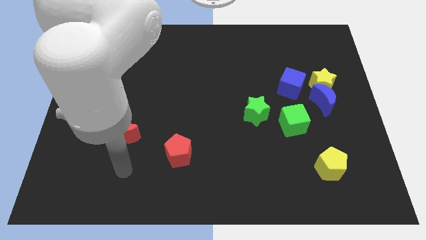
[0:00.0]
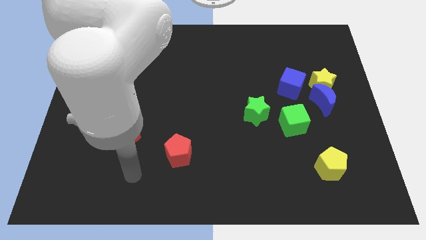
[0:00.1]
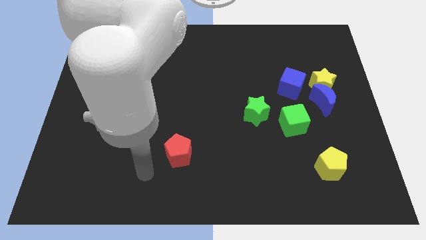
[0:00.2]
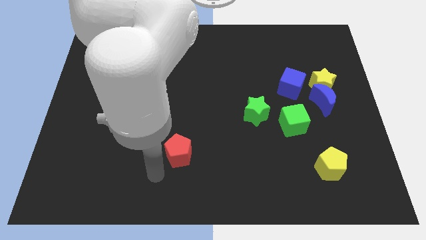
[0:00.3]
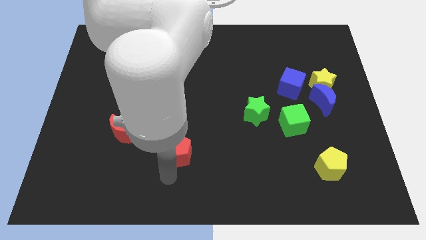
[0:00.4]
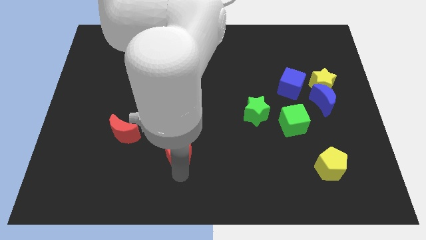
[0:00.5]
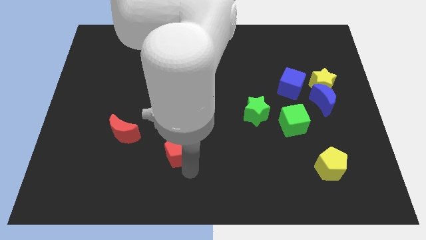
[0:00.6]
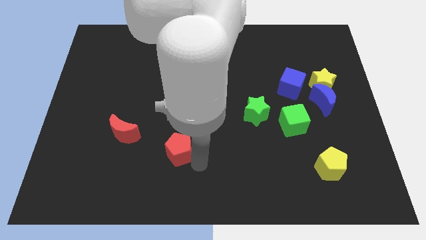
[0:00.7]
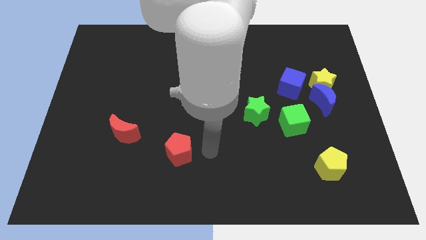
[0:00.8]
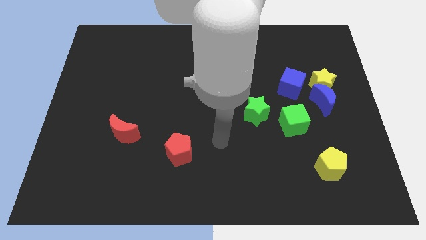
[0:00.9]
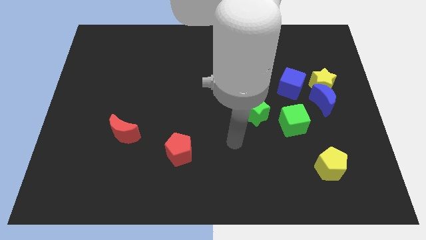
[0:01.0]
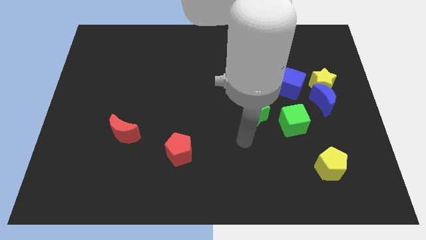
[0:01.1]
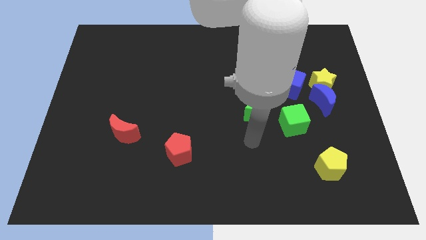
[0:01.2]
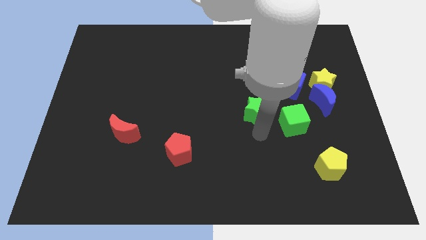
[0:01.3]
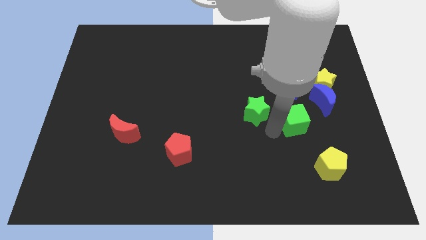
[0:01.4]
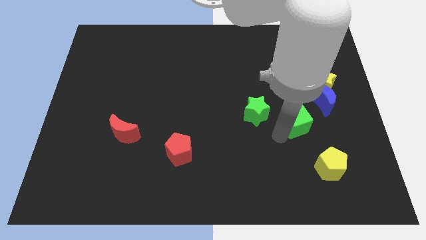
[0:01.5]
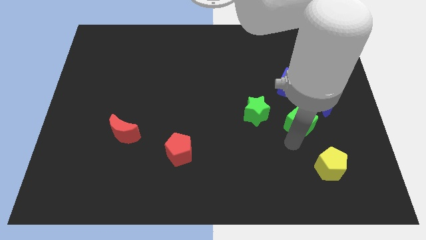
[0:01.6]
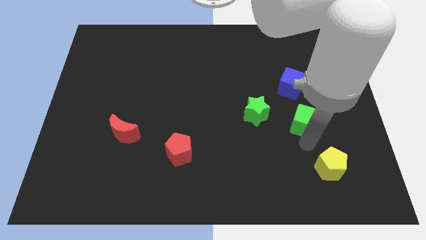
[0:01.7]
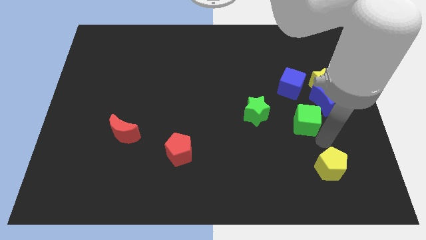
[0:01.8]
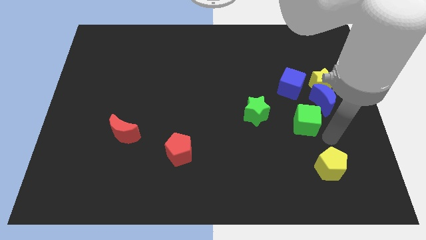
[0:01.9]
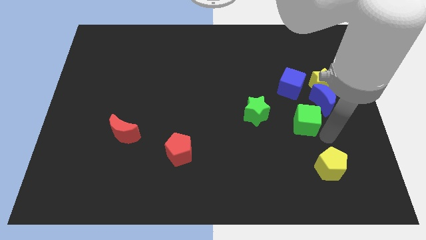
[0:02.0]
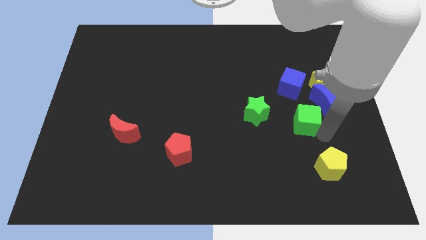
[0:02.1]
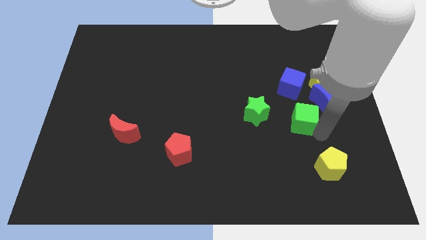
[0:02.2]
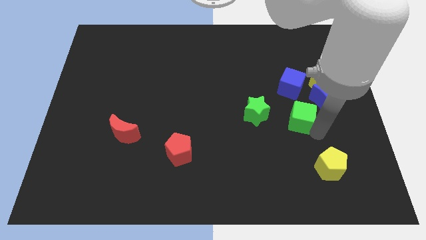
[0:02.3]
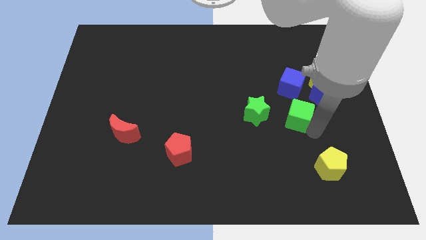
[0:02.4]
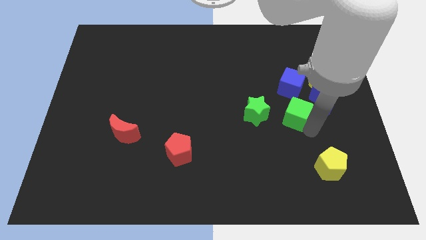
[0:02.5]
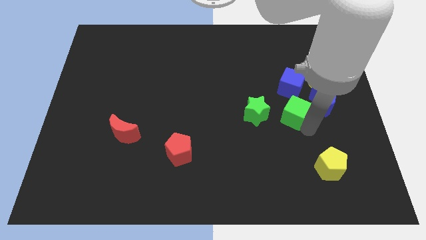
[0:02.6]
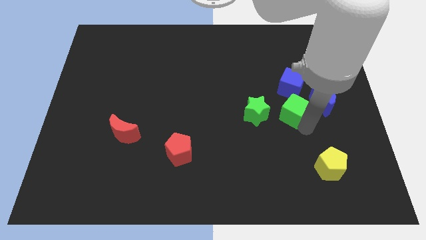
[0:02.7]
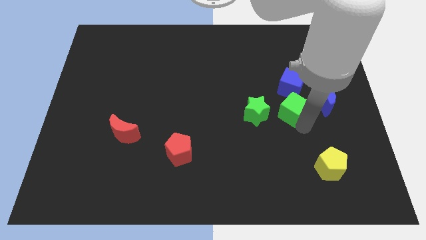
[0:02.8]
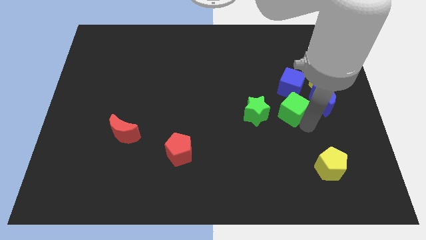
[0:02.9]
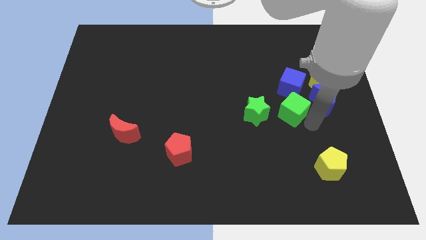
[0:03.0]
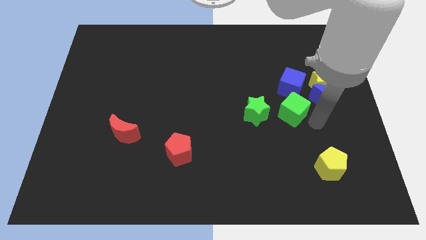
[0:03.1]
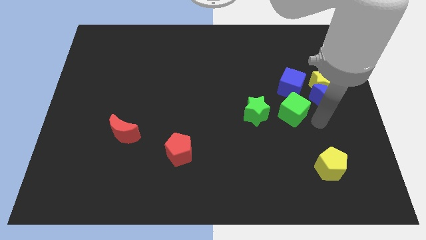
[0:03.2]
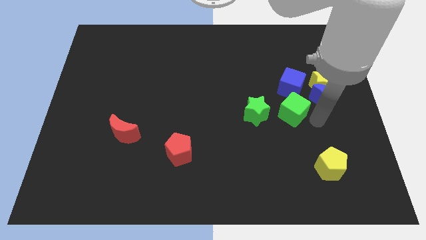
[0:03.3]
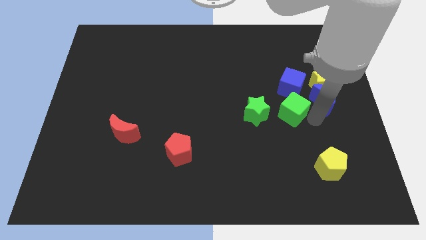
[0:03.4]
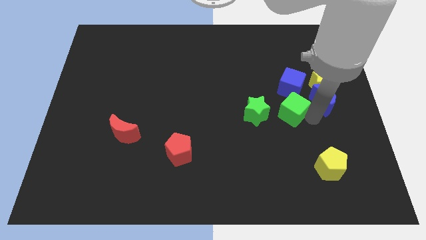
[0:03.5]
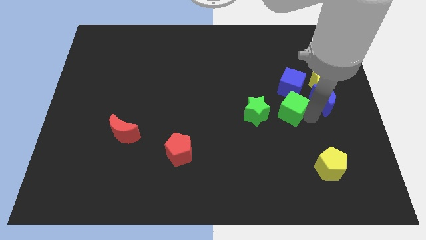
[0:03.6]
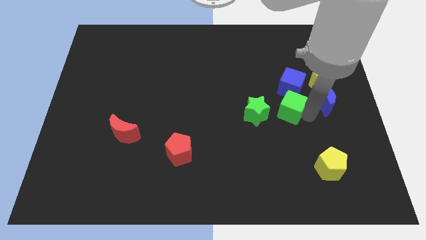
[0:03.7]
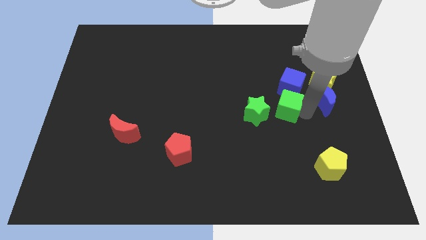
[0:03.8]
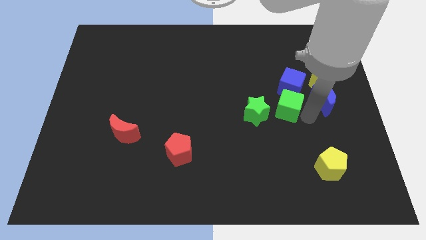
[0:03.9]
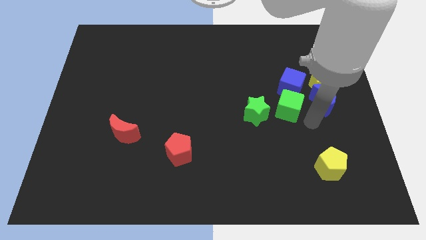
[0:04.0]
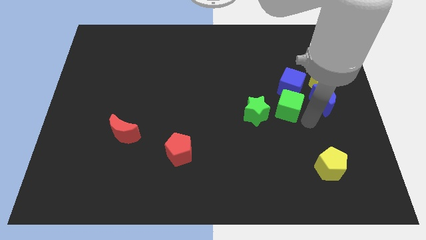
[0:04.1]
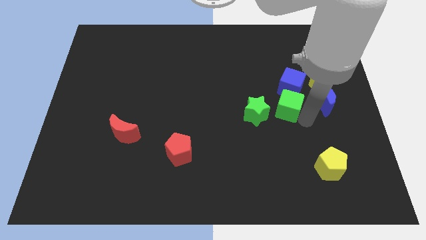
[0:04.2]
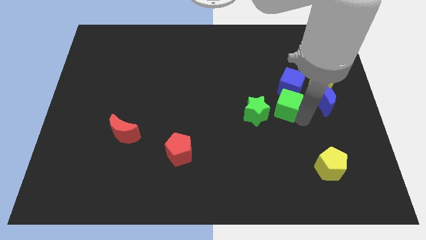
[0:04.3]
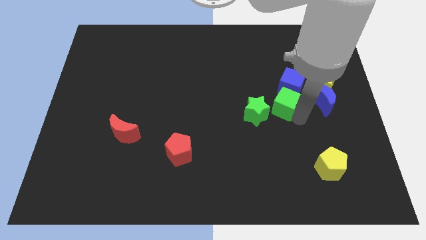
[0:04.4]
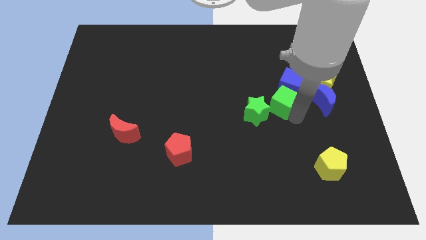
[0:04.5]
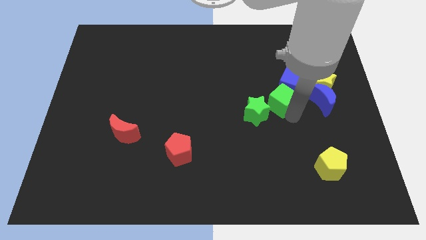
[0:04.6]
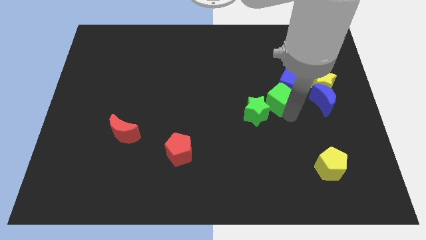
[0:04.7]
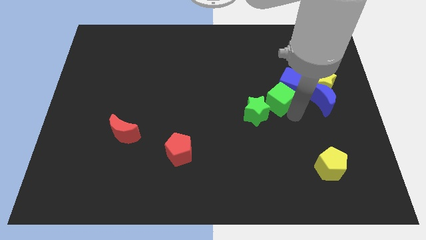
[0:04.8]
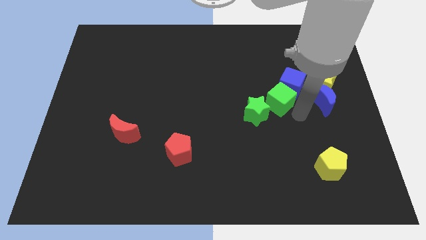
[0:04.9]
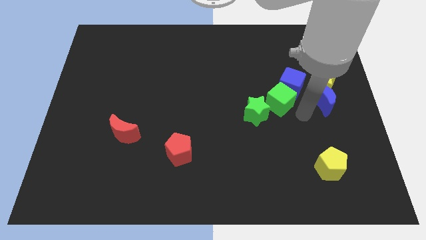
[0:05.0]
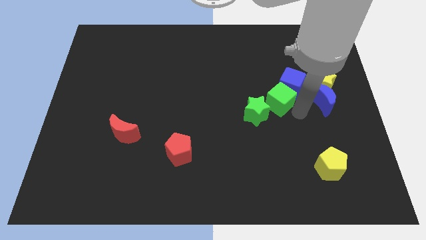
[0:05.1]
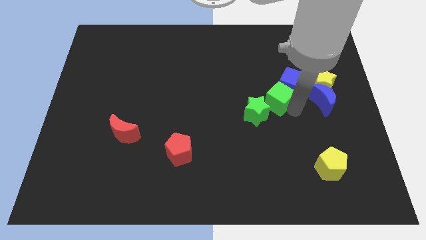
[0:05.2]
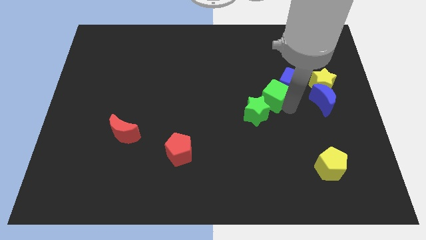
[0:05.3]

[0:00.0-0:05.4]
slide the green cube somewhat diagonally upwards and to the left

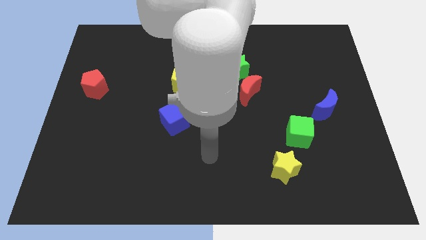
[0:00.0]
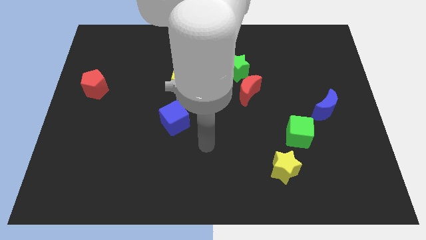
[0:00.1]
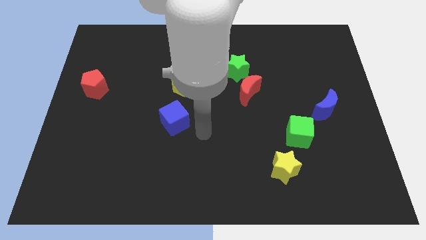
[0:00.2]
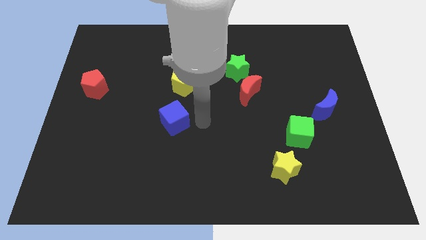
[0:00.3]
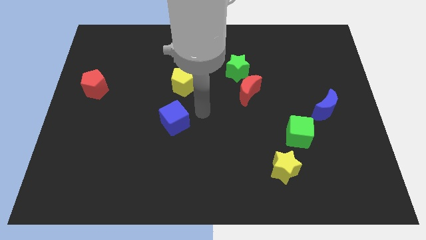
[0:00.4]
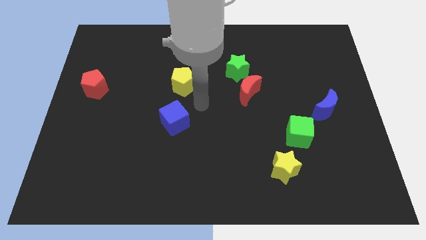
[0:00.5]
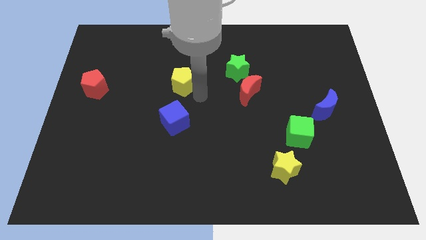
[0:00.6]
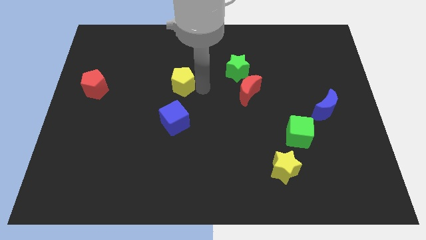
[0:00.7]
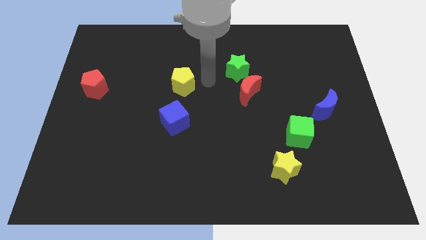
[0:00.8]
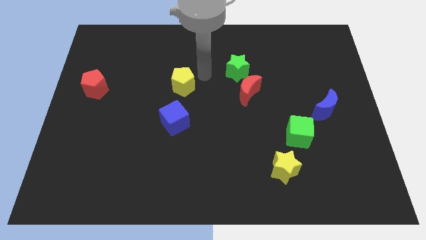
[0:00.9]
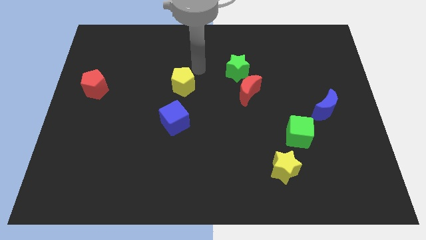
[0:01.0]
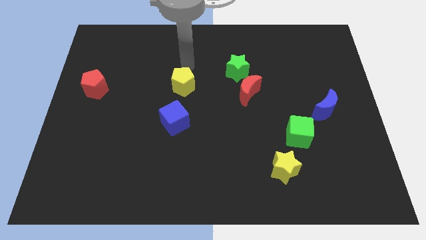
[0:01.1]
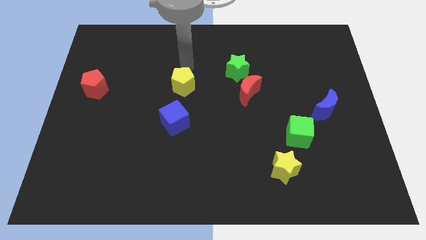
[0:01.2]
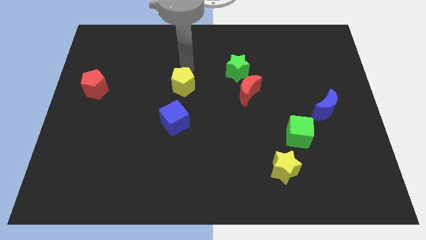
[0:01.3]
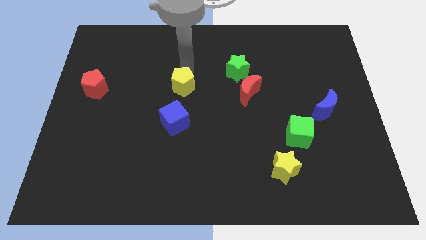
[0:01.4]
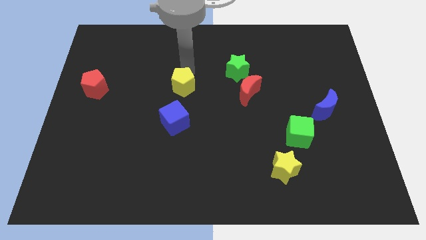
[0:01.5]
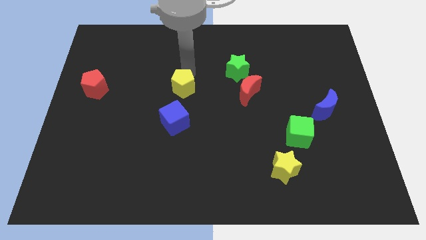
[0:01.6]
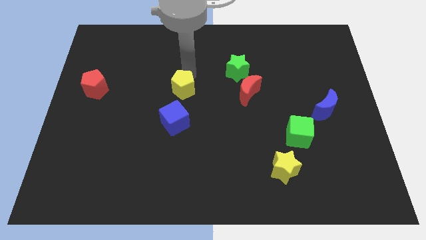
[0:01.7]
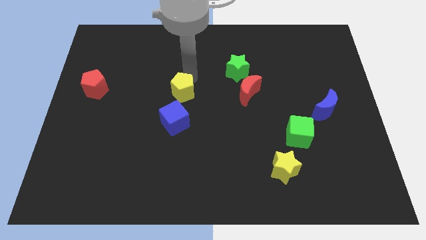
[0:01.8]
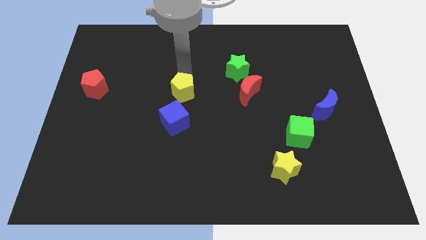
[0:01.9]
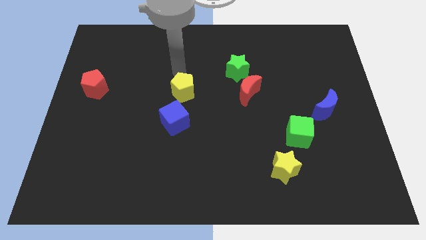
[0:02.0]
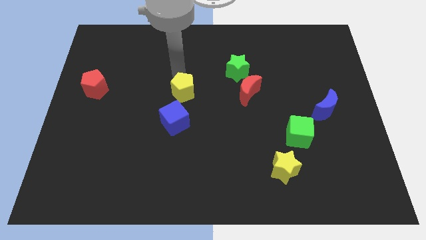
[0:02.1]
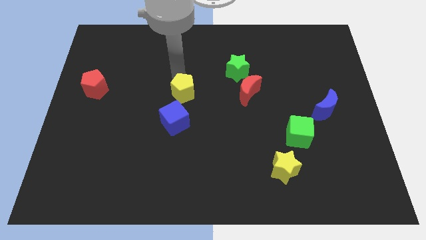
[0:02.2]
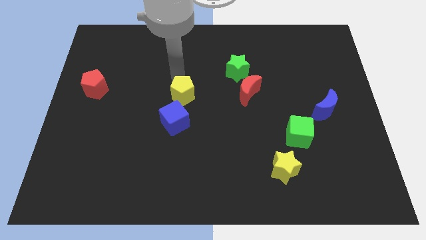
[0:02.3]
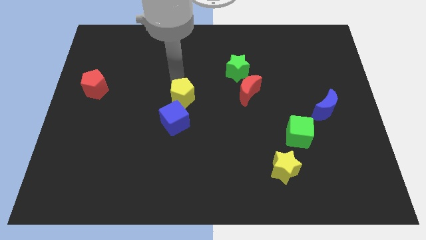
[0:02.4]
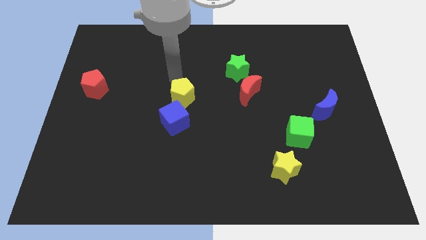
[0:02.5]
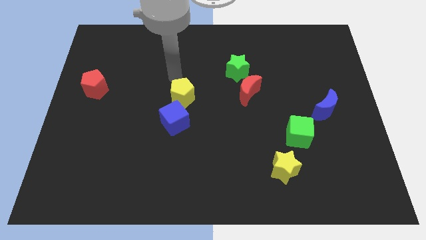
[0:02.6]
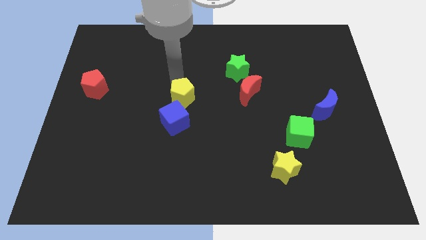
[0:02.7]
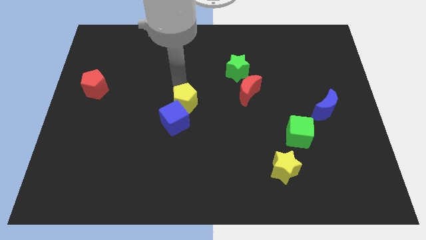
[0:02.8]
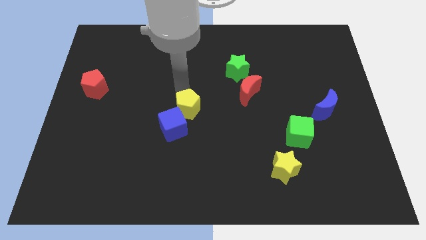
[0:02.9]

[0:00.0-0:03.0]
move the yellow pentagon downwards somewhat
